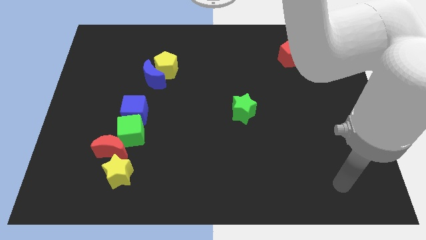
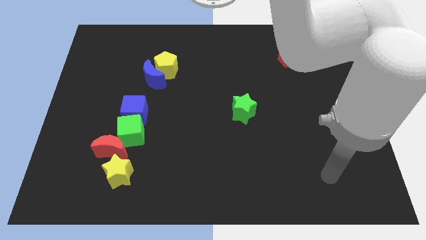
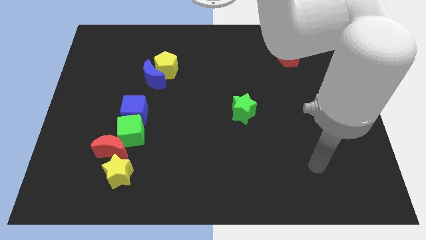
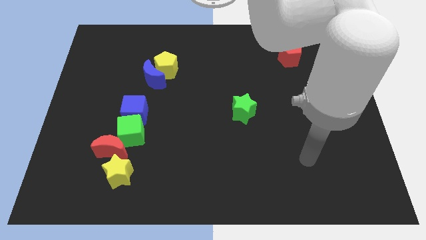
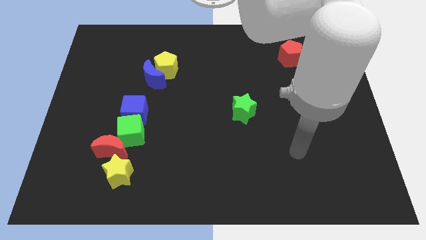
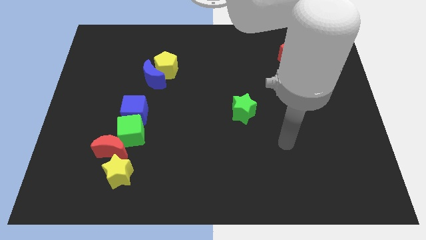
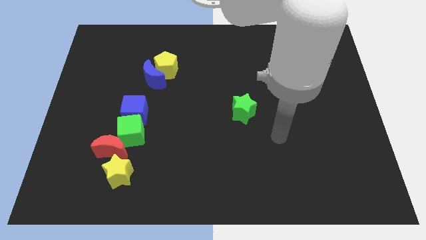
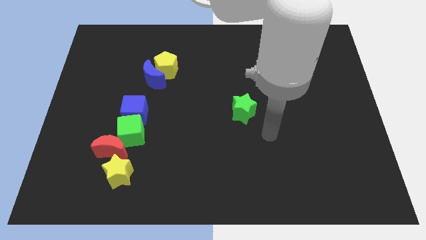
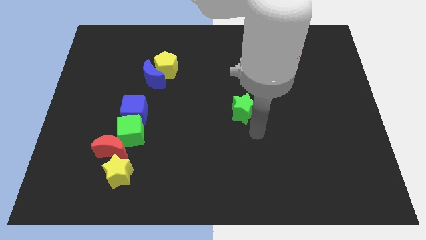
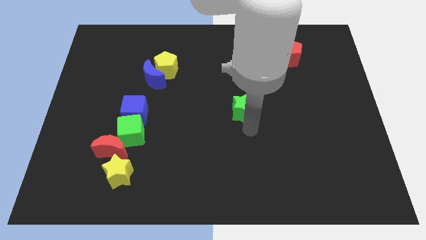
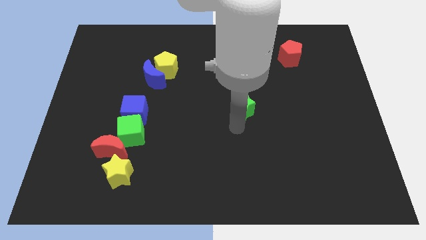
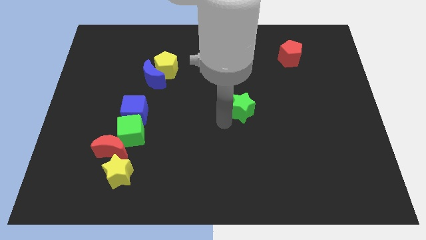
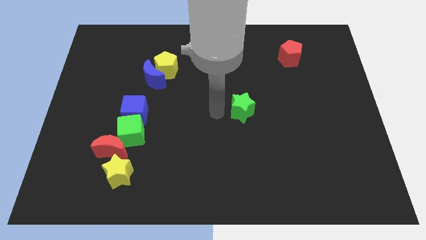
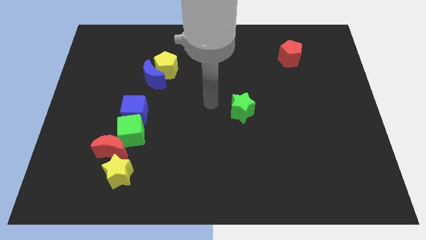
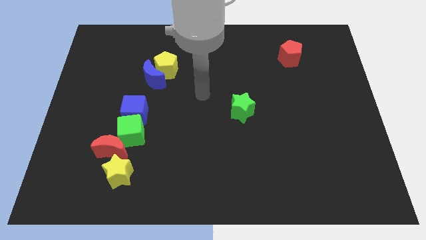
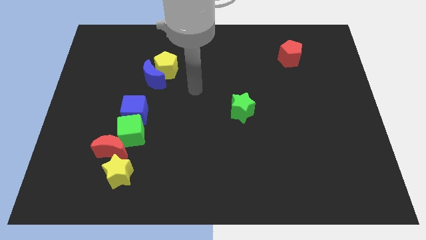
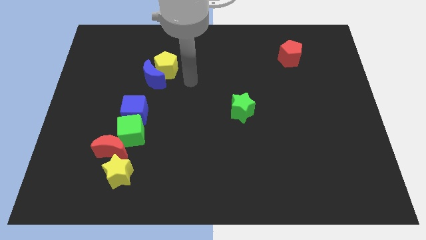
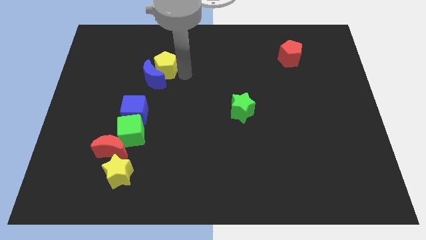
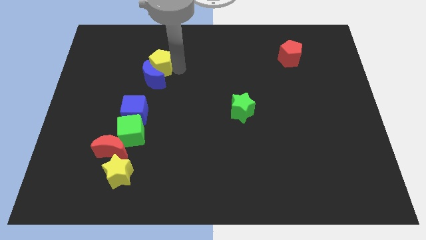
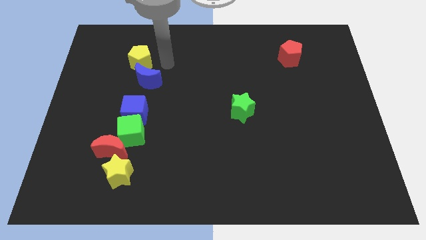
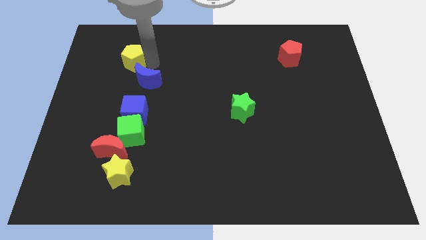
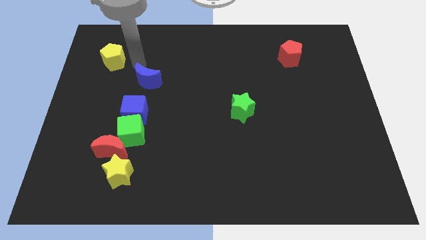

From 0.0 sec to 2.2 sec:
pull the blue moon apart from the yellow pentagon

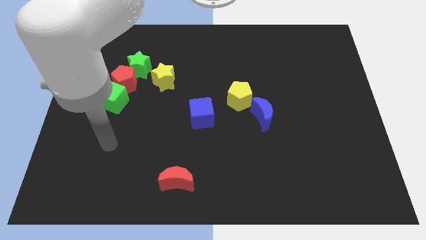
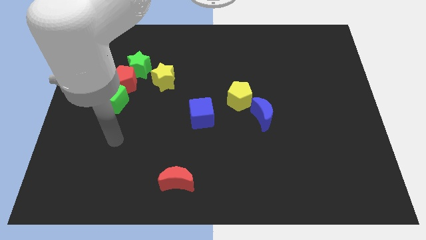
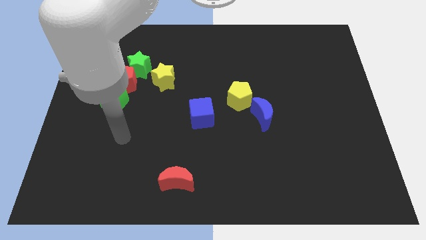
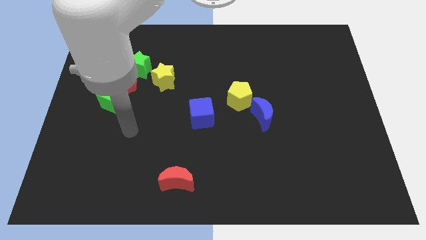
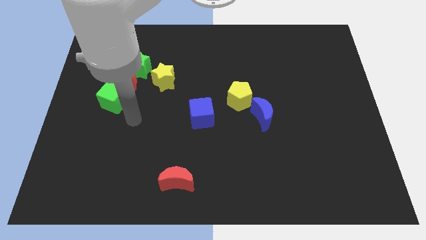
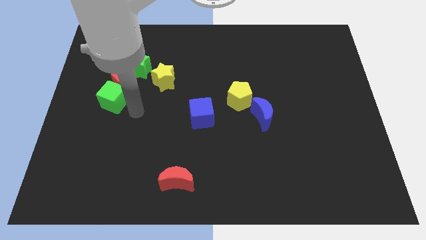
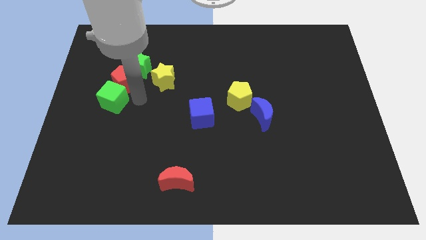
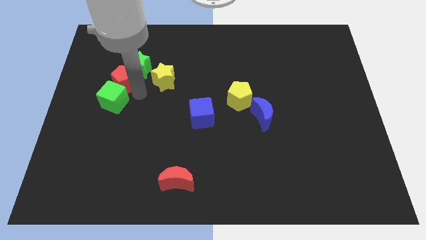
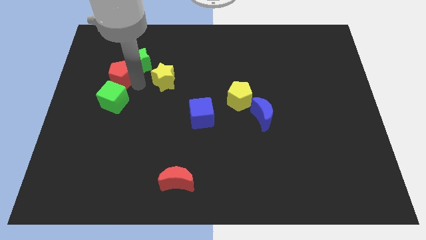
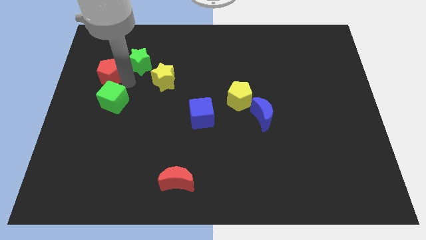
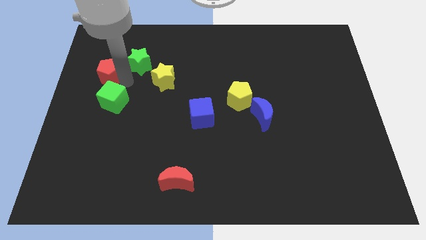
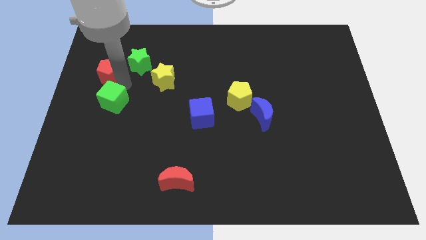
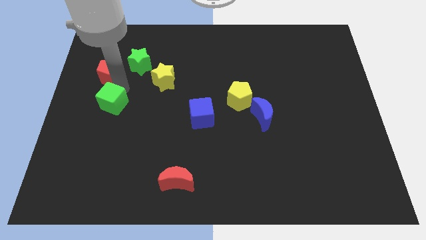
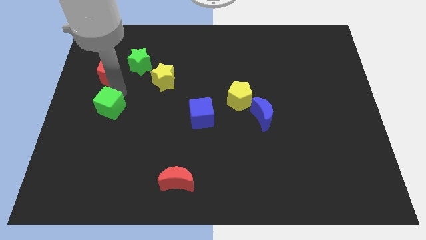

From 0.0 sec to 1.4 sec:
pull the green cube apart from the red pentagon

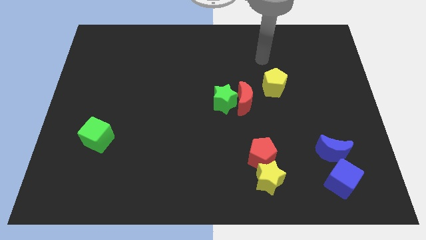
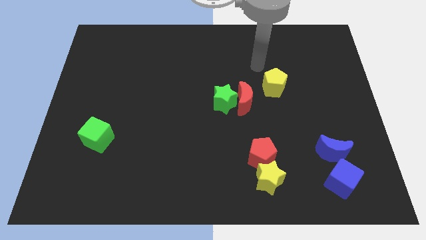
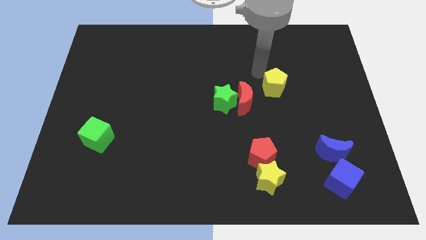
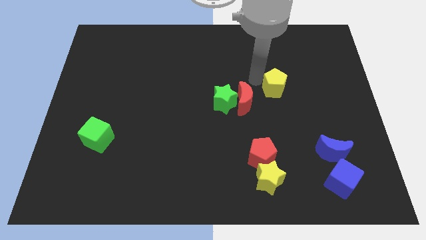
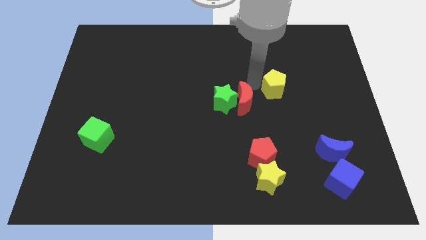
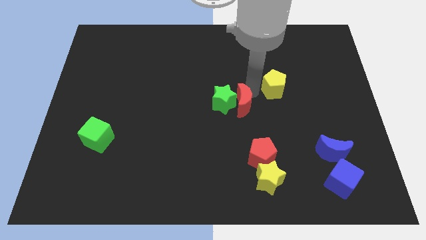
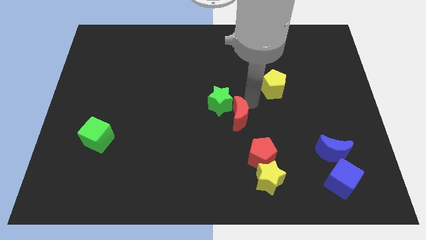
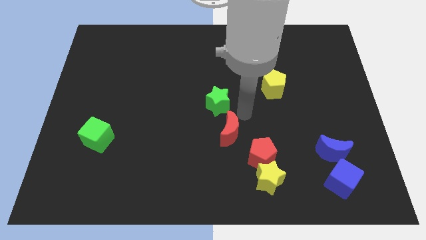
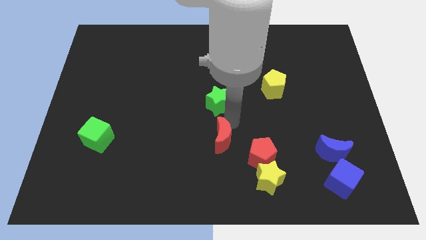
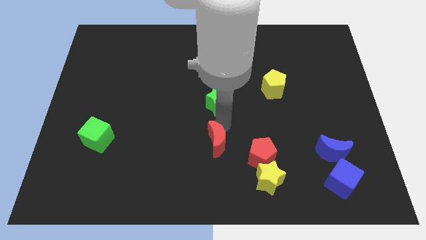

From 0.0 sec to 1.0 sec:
pull the green star apart from the red moon

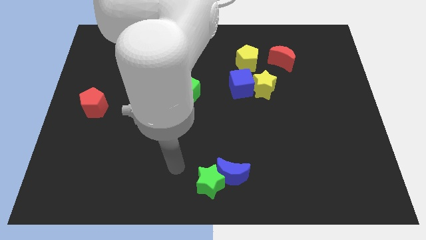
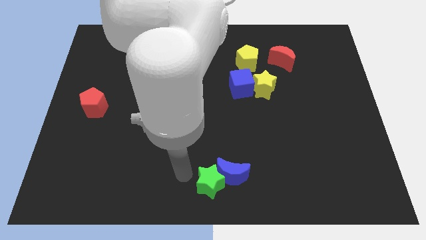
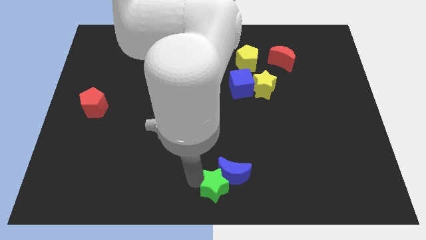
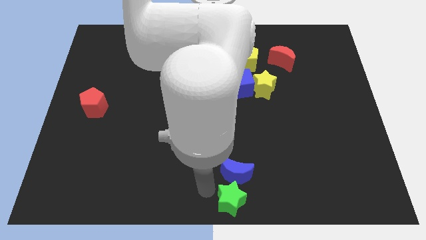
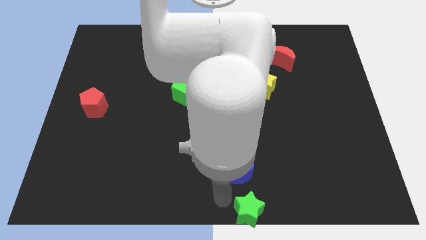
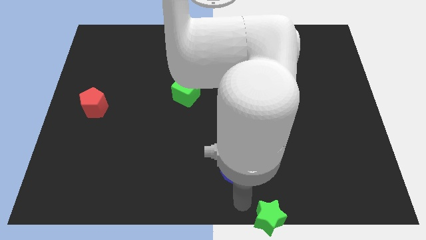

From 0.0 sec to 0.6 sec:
move the blue moon away from the green star

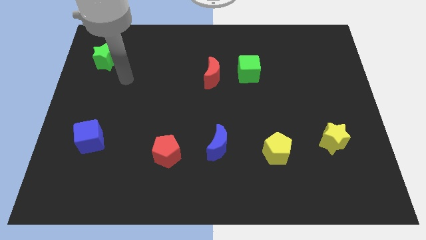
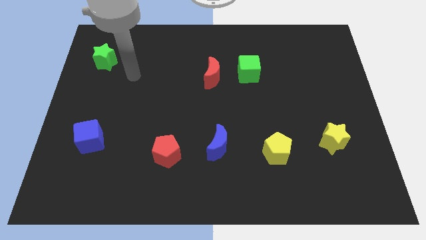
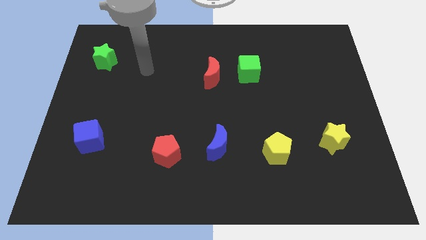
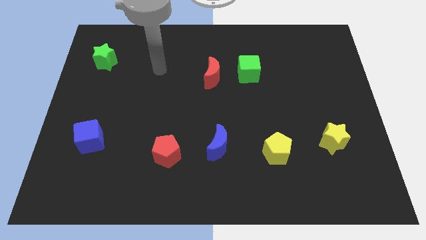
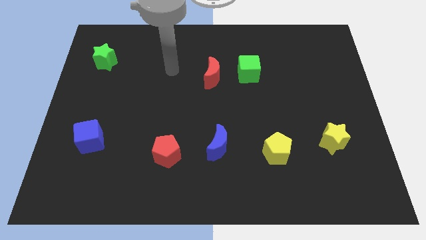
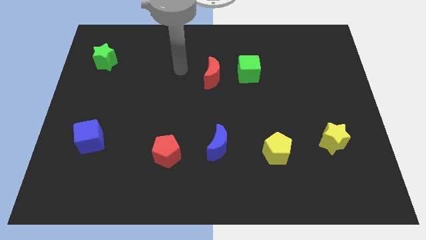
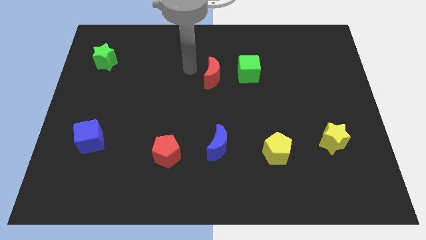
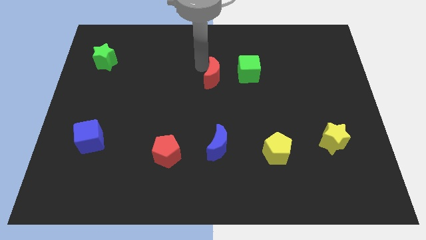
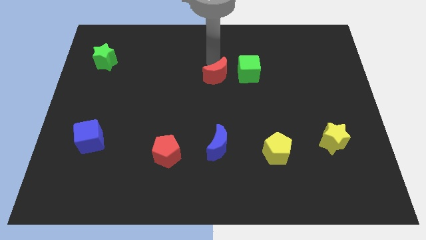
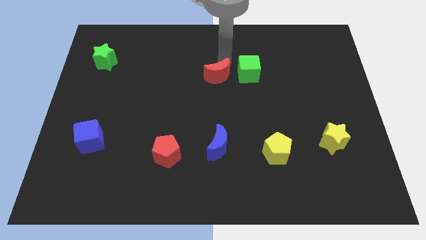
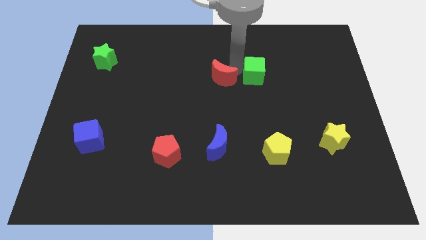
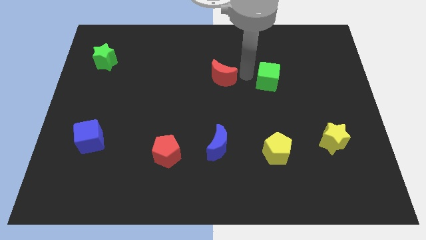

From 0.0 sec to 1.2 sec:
pull the red moon apart from the green cube

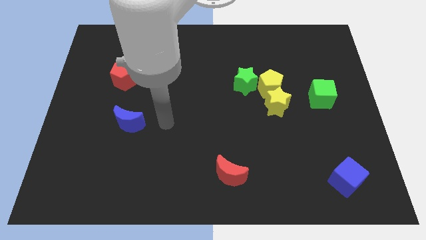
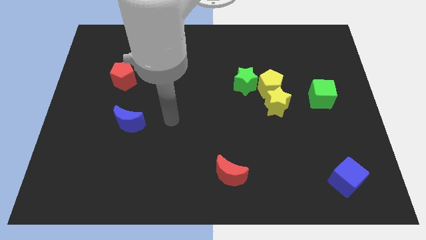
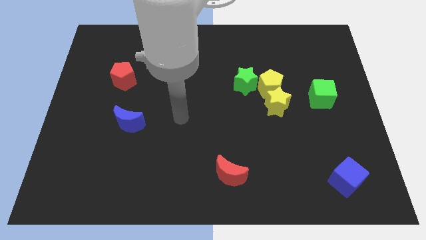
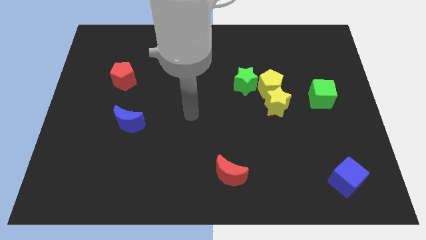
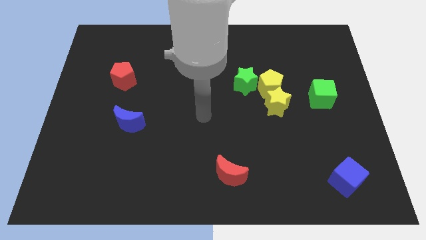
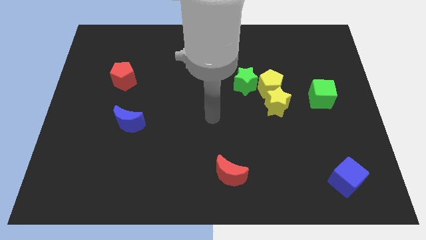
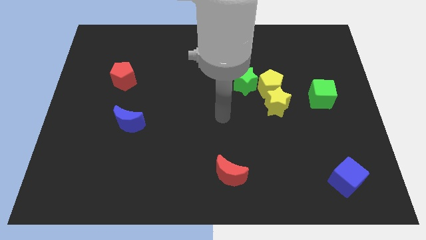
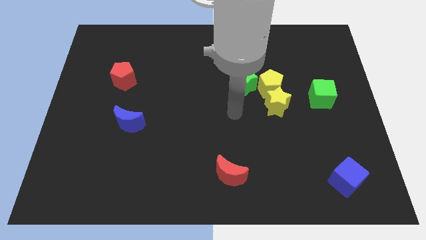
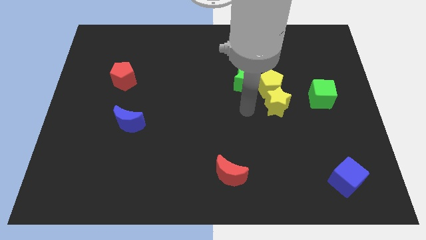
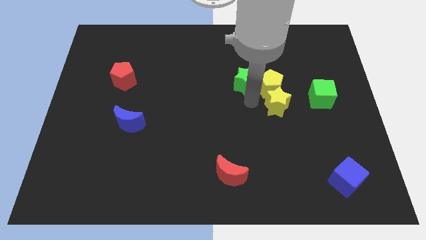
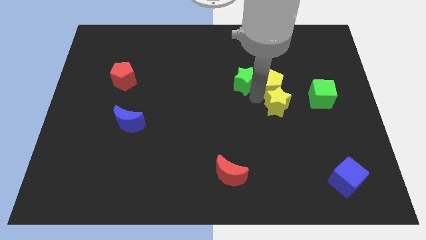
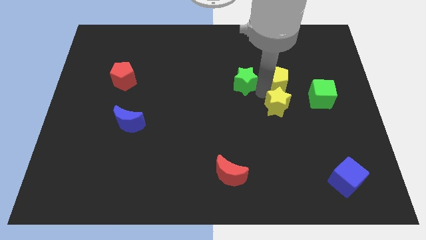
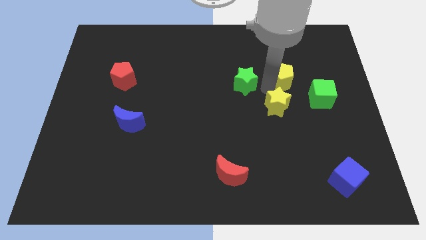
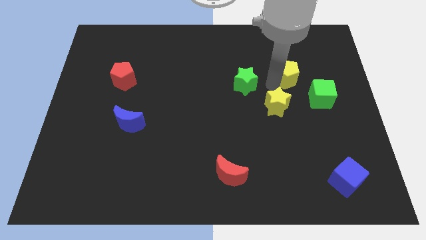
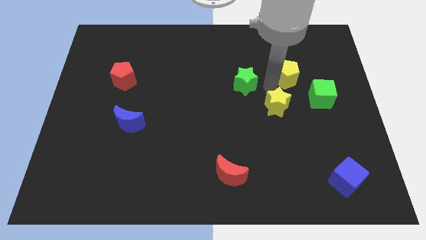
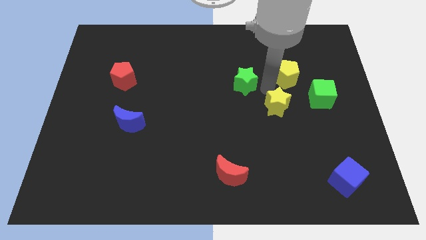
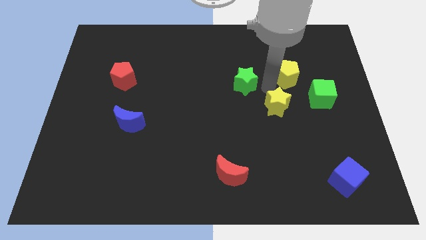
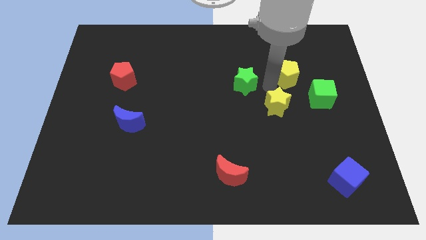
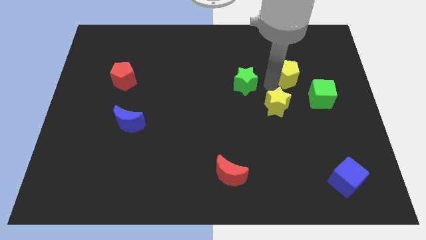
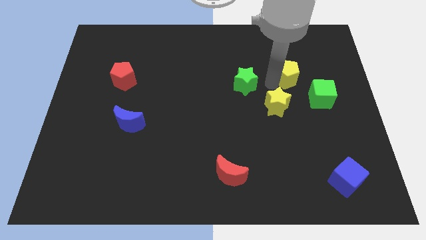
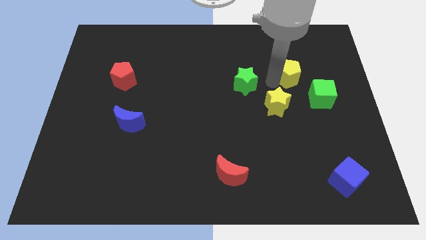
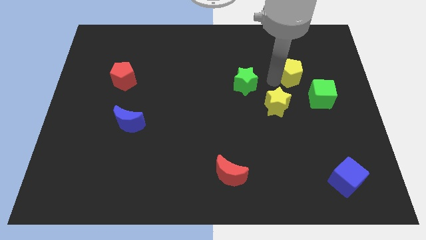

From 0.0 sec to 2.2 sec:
pull the yellow pentagon apart from the yellow star and green star

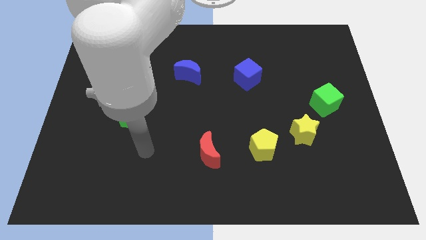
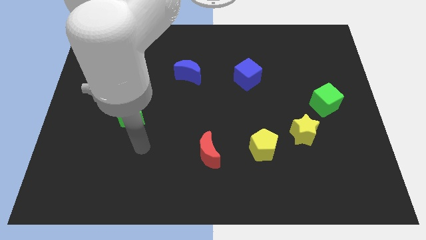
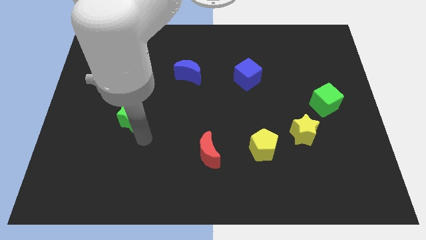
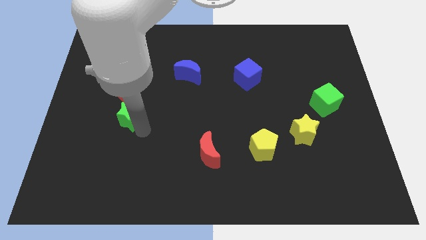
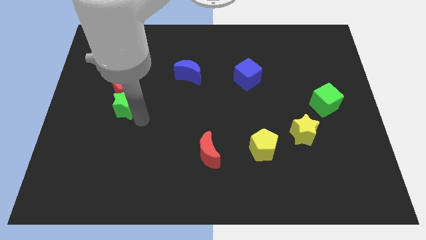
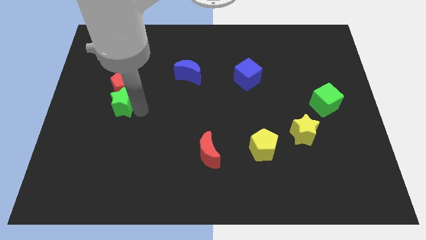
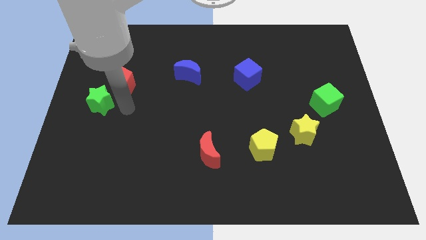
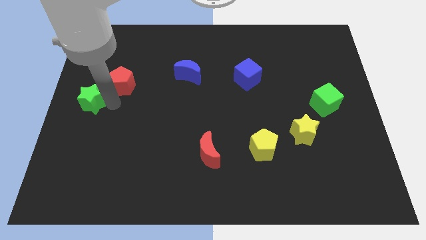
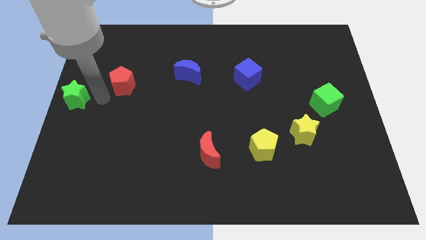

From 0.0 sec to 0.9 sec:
pull the red pentagon apart from the green star
